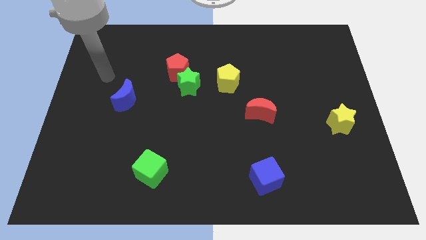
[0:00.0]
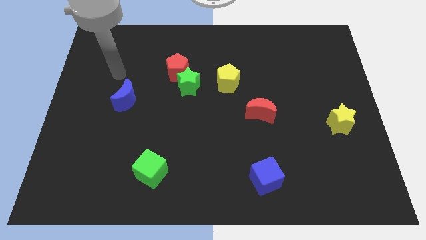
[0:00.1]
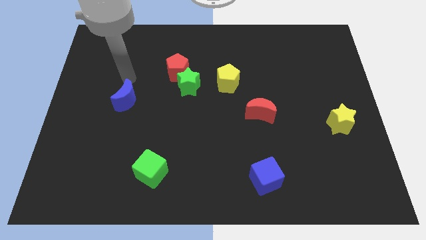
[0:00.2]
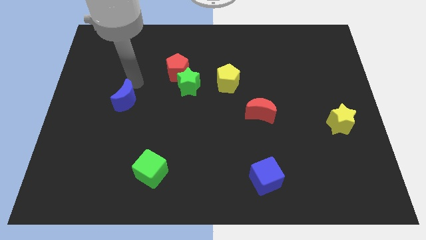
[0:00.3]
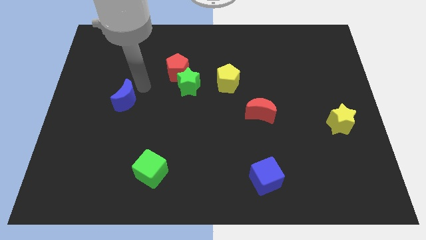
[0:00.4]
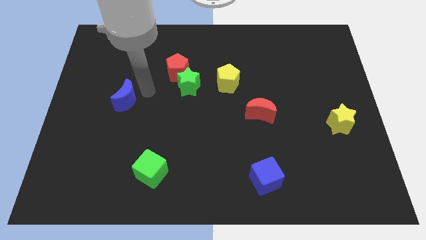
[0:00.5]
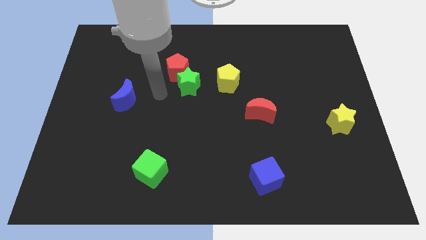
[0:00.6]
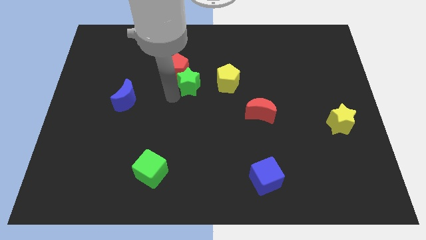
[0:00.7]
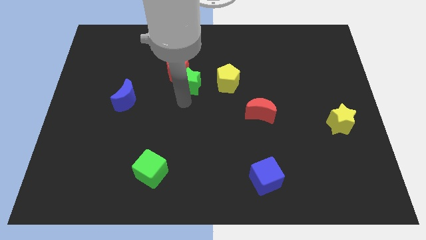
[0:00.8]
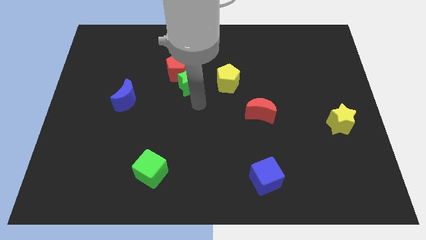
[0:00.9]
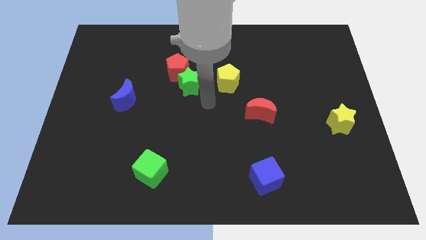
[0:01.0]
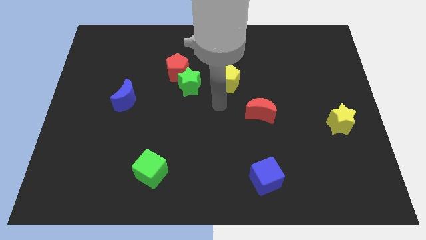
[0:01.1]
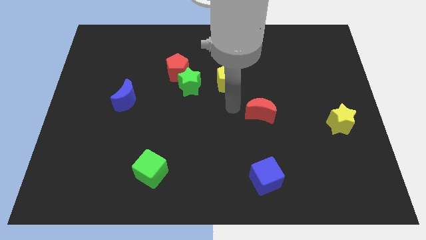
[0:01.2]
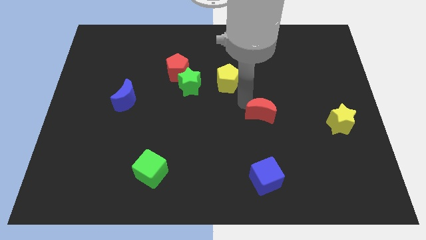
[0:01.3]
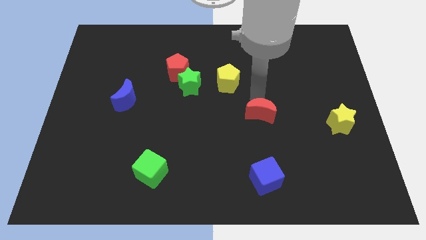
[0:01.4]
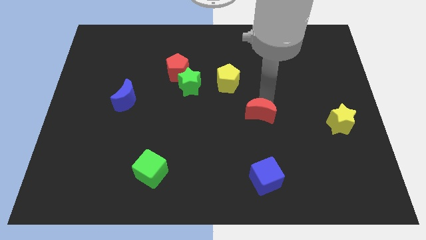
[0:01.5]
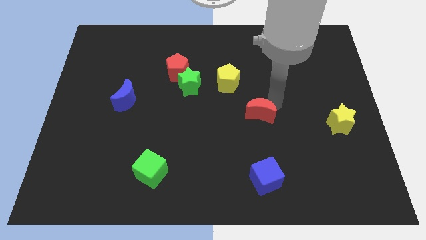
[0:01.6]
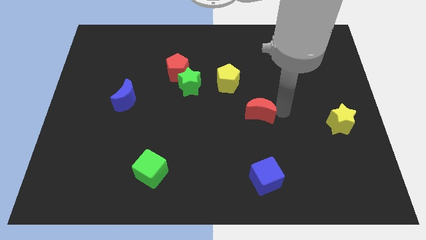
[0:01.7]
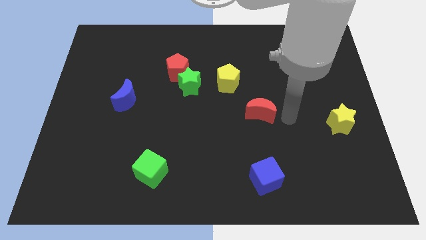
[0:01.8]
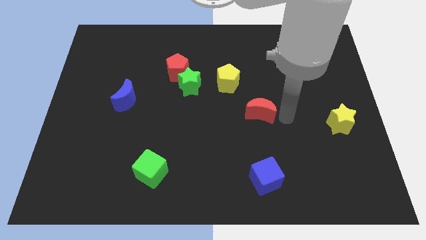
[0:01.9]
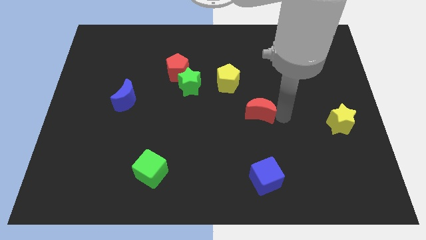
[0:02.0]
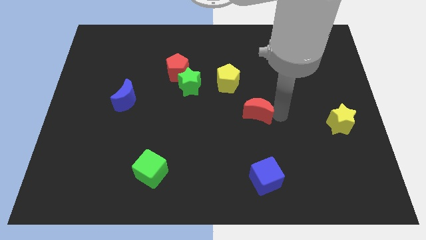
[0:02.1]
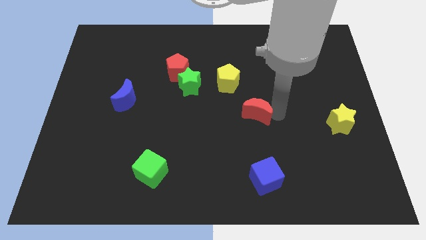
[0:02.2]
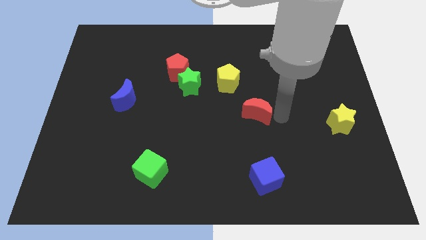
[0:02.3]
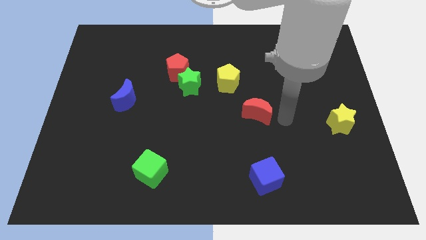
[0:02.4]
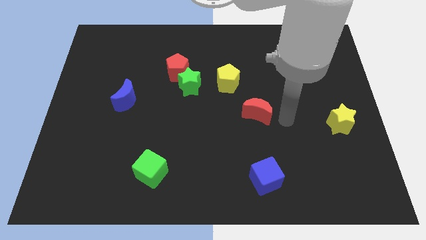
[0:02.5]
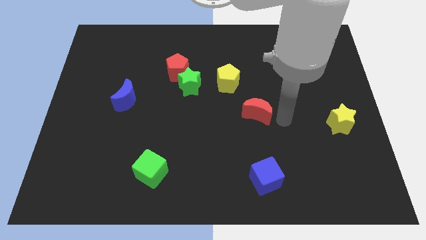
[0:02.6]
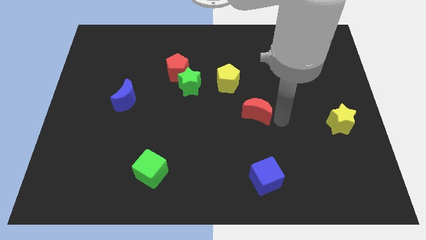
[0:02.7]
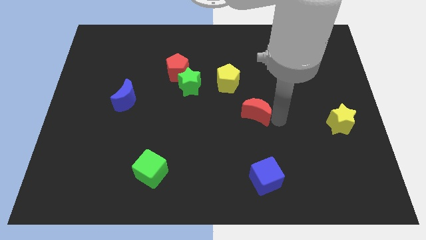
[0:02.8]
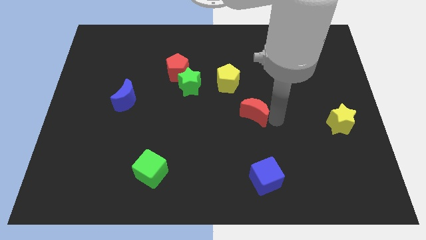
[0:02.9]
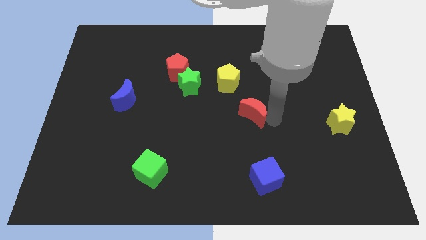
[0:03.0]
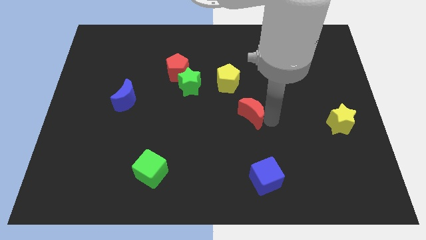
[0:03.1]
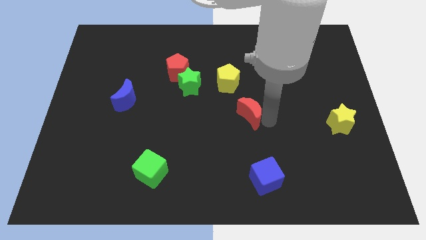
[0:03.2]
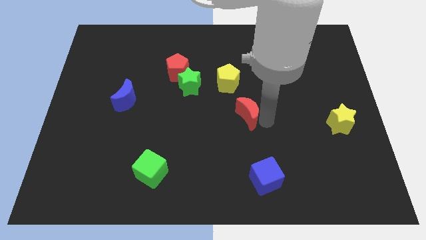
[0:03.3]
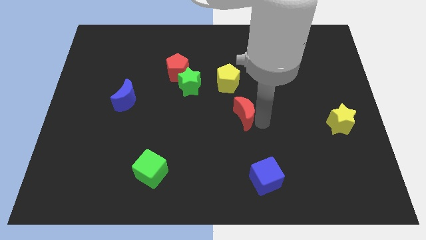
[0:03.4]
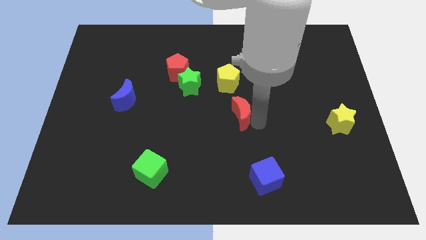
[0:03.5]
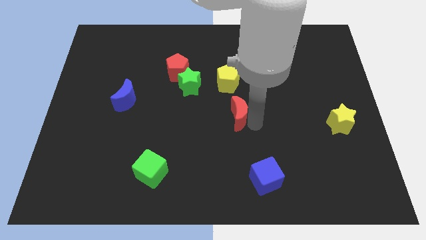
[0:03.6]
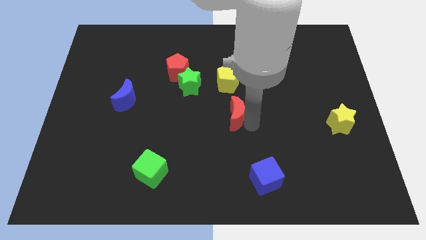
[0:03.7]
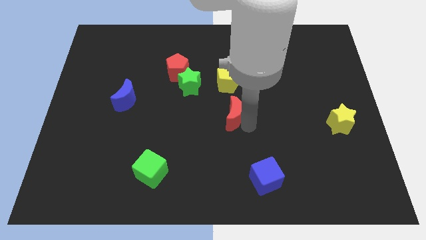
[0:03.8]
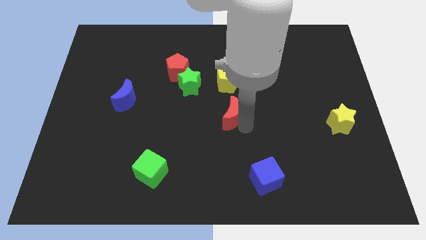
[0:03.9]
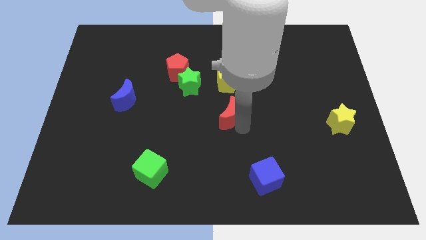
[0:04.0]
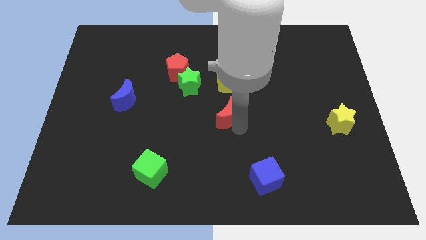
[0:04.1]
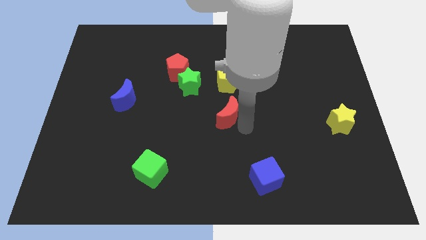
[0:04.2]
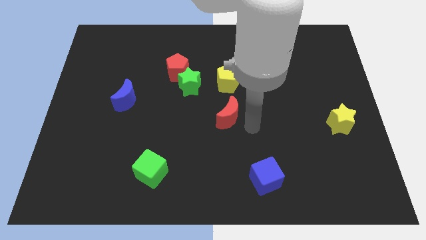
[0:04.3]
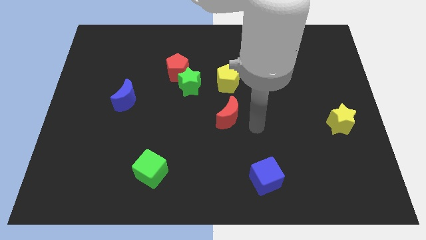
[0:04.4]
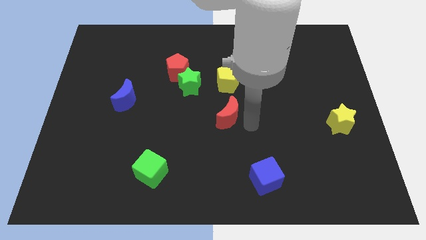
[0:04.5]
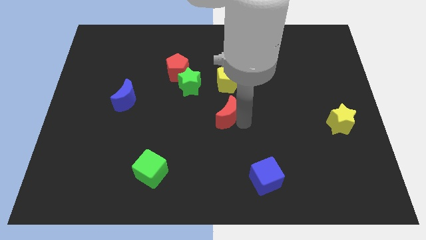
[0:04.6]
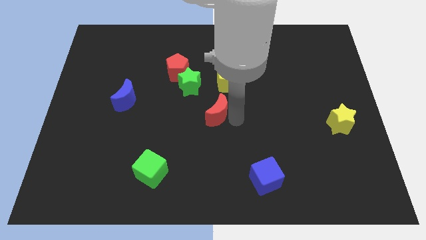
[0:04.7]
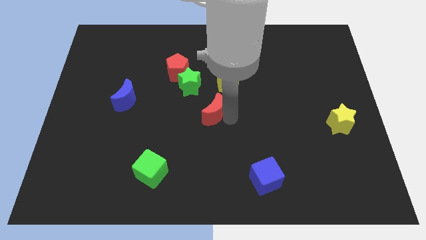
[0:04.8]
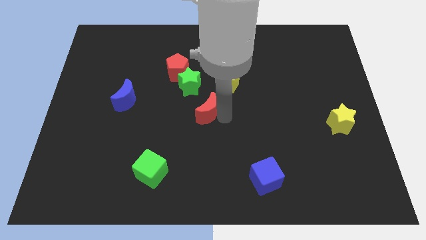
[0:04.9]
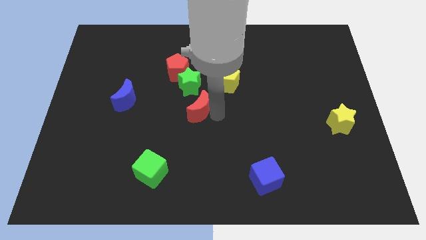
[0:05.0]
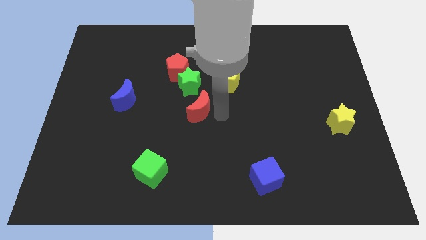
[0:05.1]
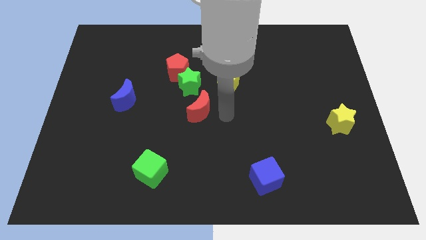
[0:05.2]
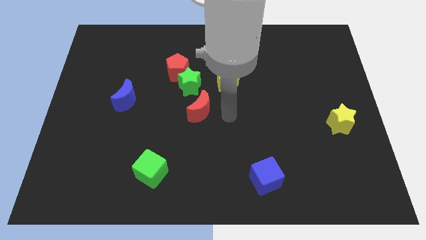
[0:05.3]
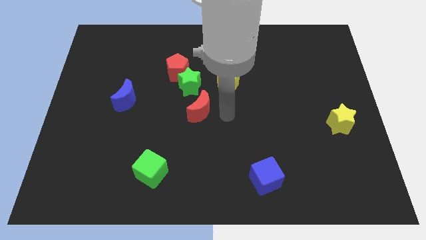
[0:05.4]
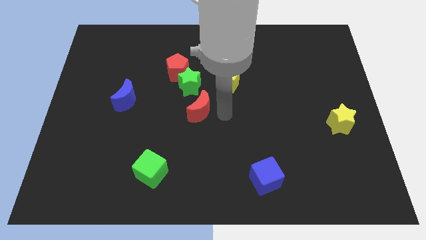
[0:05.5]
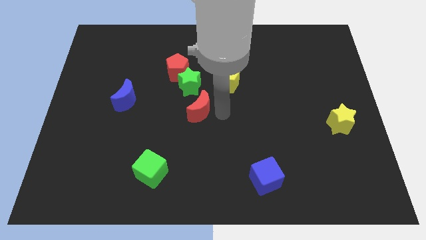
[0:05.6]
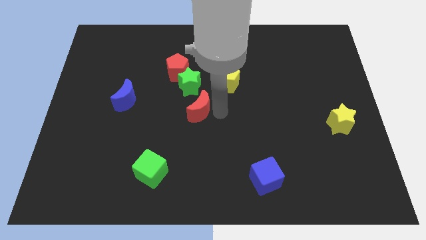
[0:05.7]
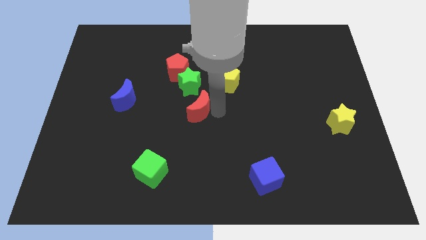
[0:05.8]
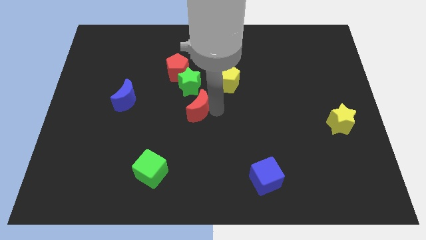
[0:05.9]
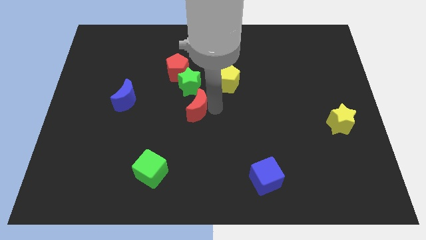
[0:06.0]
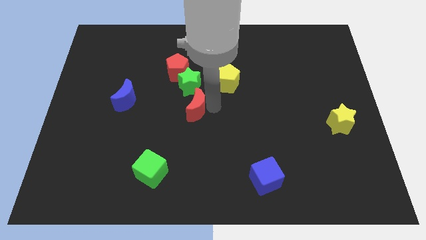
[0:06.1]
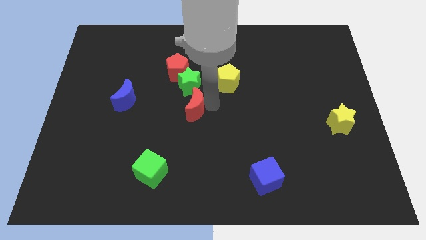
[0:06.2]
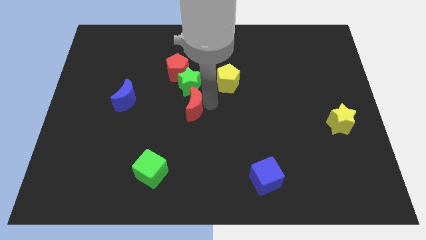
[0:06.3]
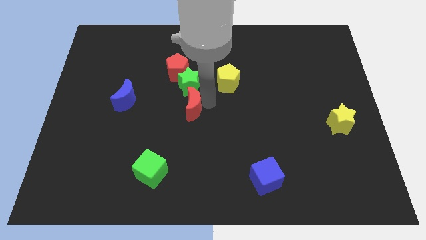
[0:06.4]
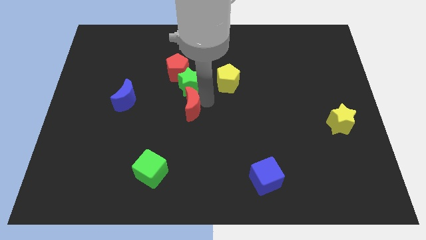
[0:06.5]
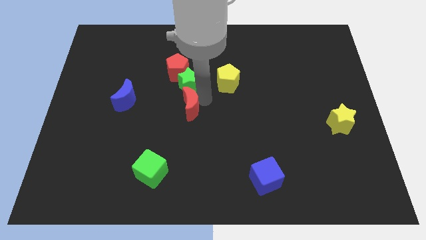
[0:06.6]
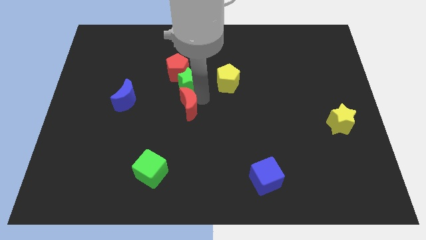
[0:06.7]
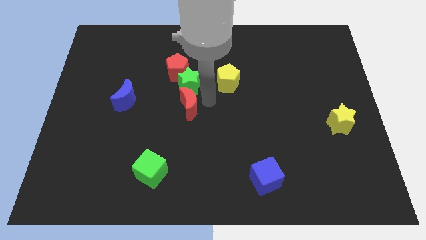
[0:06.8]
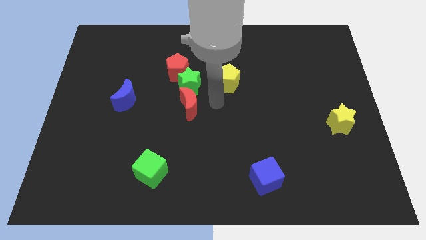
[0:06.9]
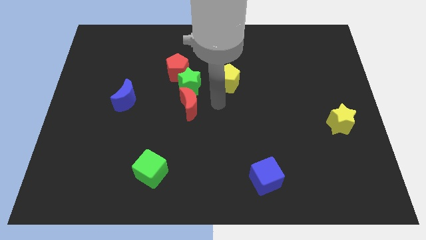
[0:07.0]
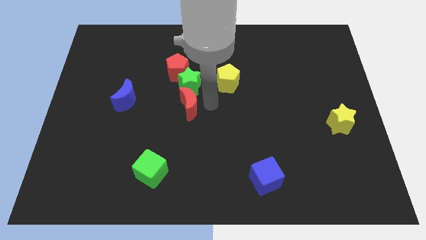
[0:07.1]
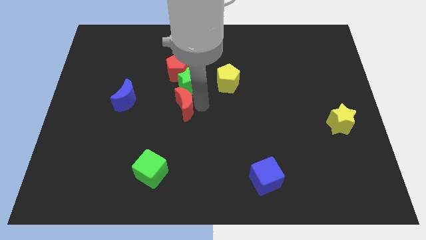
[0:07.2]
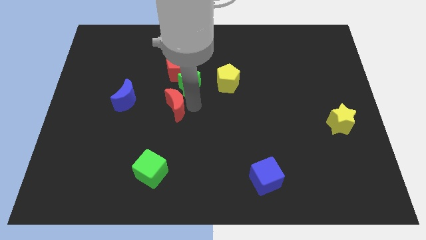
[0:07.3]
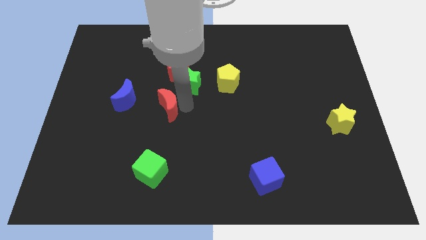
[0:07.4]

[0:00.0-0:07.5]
slide the red moon to the left

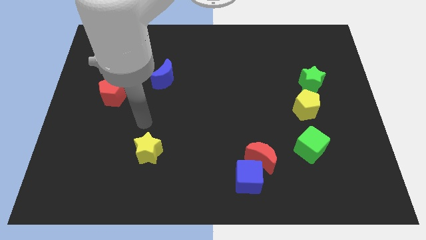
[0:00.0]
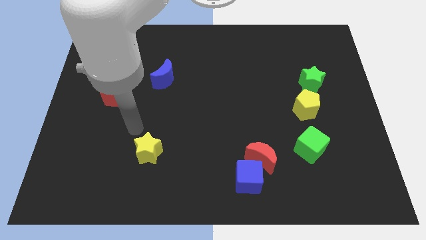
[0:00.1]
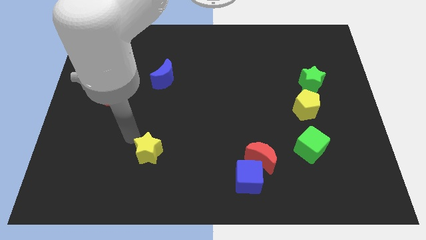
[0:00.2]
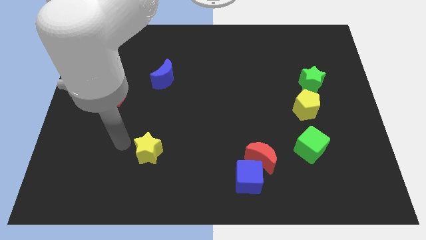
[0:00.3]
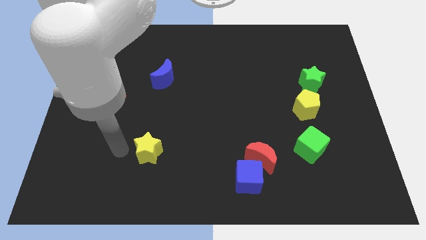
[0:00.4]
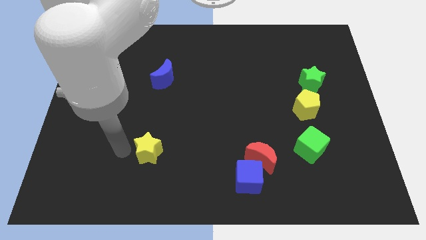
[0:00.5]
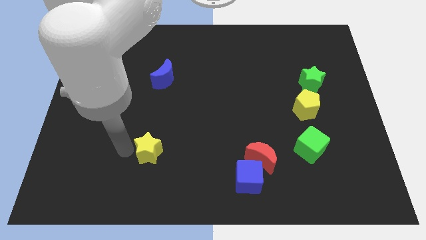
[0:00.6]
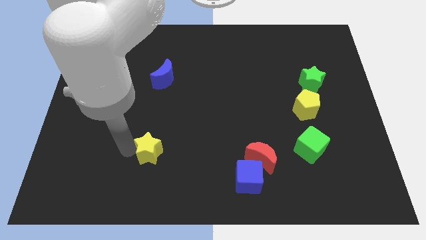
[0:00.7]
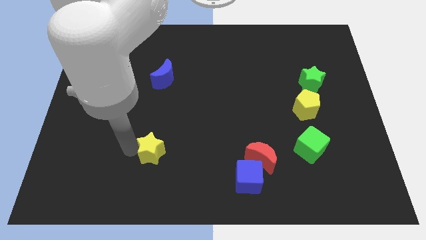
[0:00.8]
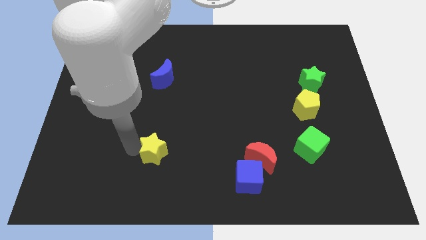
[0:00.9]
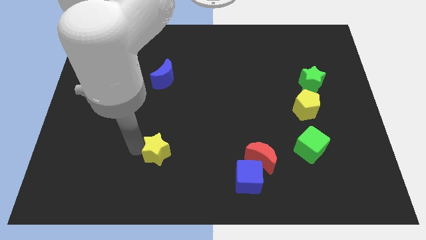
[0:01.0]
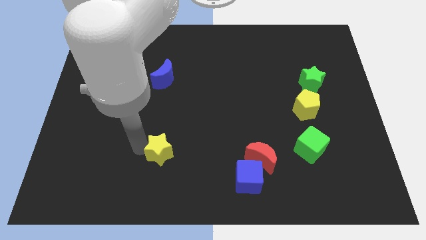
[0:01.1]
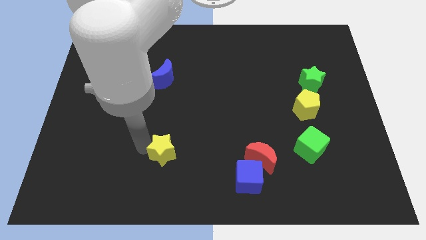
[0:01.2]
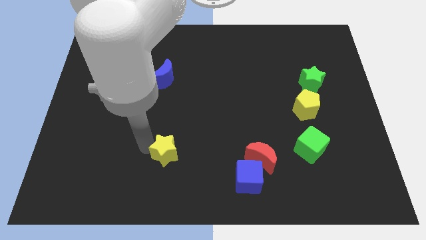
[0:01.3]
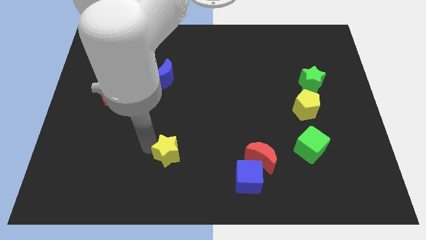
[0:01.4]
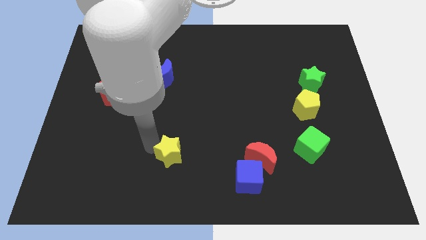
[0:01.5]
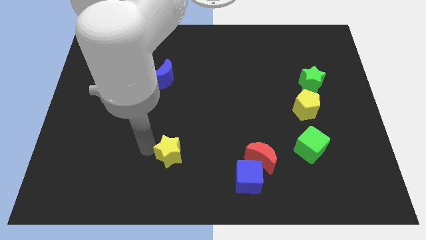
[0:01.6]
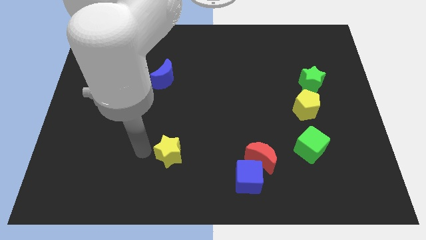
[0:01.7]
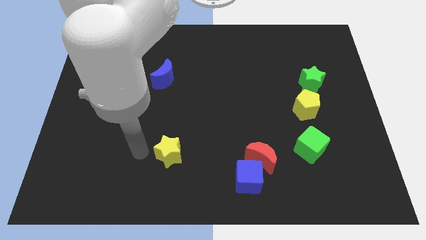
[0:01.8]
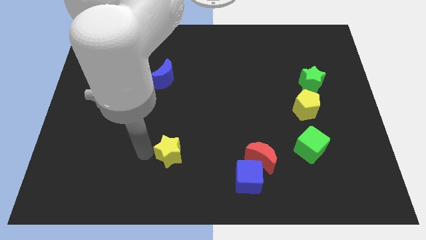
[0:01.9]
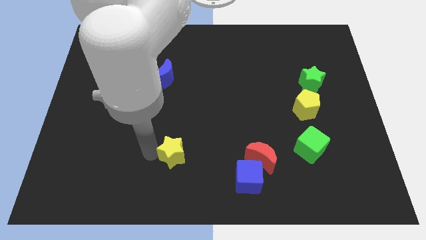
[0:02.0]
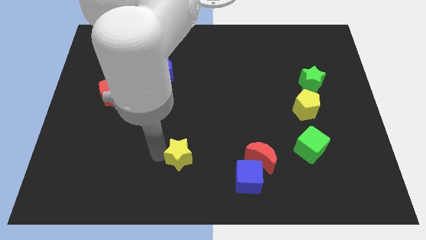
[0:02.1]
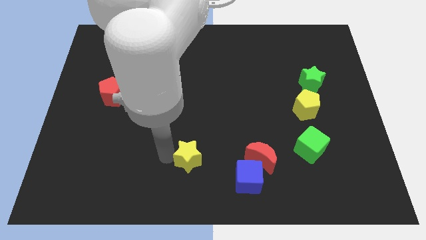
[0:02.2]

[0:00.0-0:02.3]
slightly push the yellow star right
